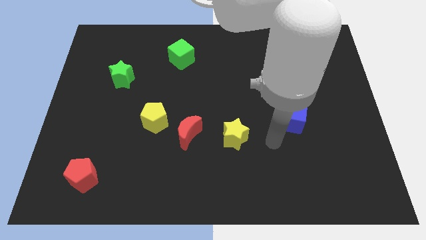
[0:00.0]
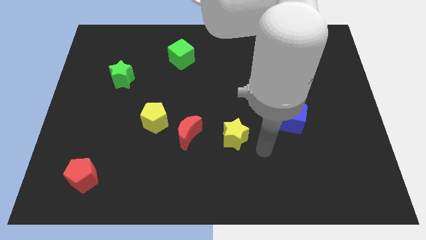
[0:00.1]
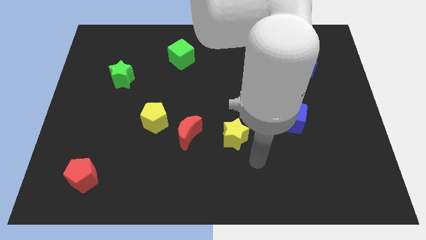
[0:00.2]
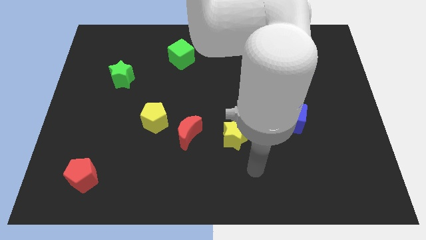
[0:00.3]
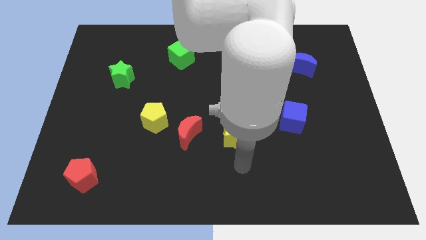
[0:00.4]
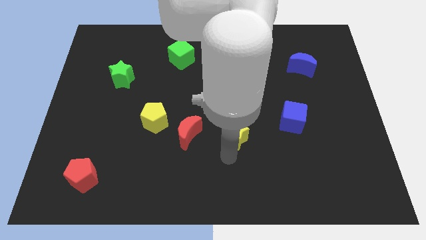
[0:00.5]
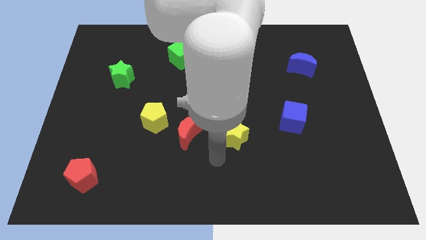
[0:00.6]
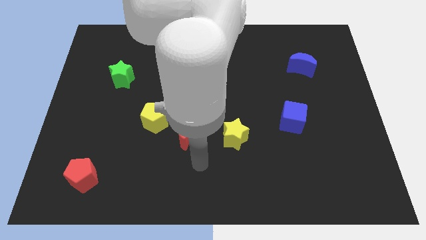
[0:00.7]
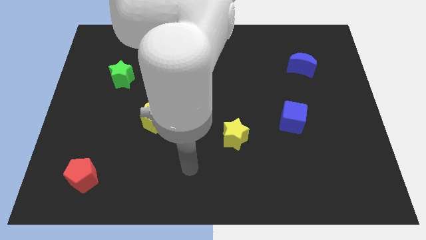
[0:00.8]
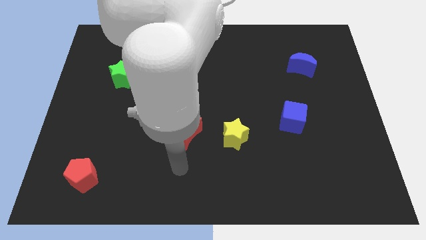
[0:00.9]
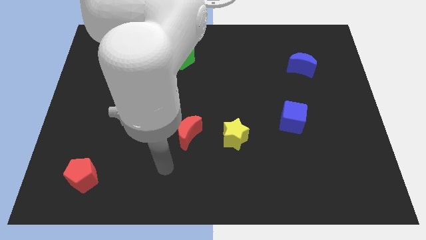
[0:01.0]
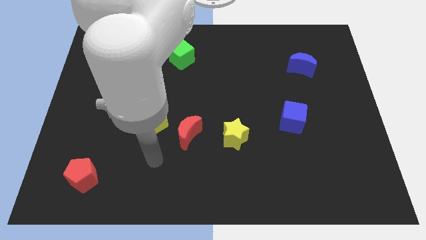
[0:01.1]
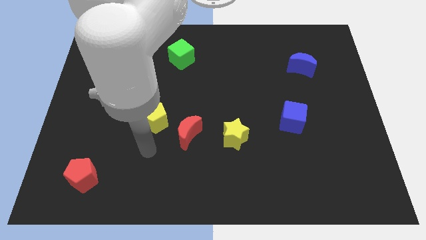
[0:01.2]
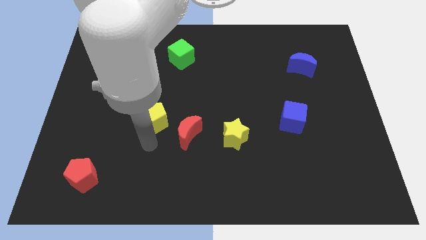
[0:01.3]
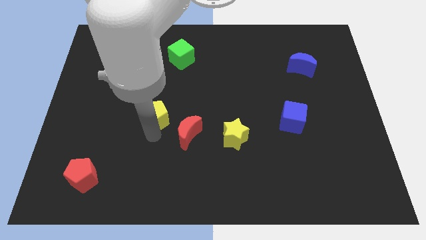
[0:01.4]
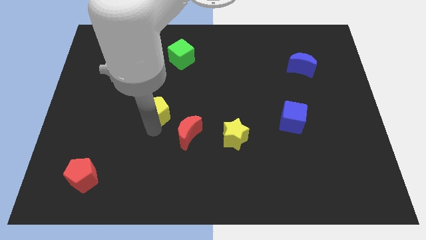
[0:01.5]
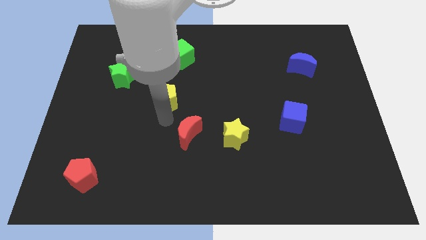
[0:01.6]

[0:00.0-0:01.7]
pull the red moon apart from the yellow pentagon

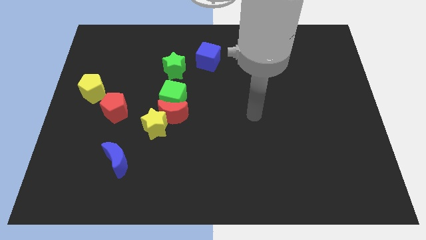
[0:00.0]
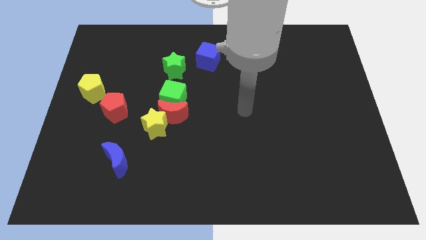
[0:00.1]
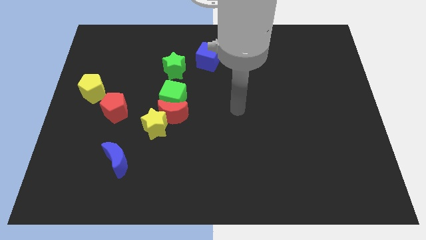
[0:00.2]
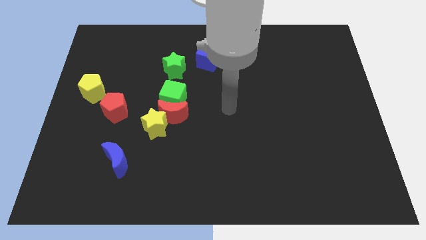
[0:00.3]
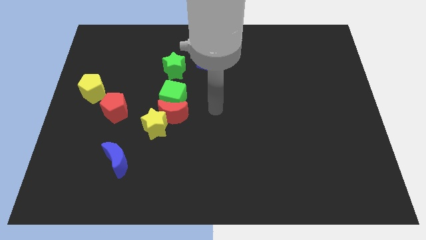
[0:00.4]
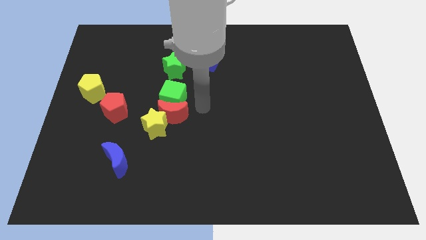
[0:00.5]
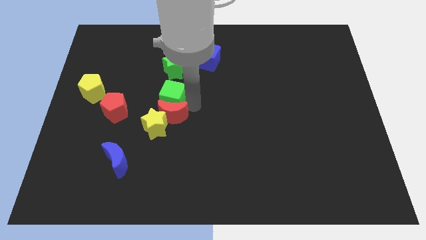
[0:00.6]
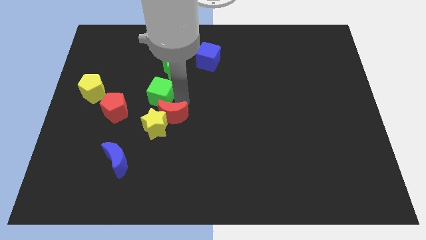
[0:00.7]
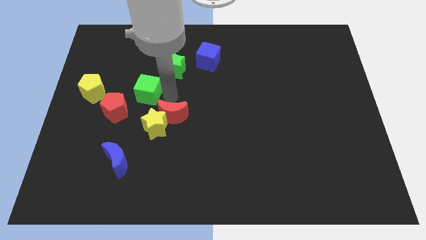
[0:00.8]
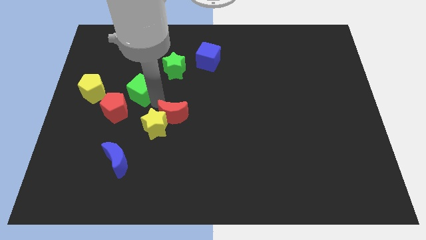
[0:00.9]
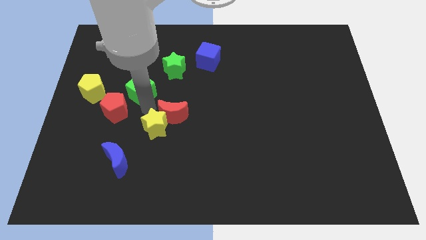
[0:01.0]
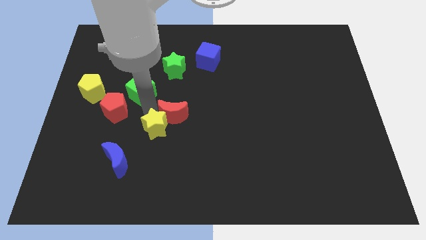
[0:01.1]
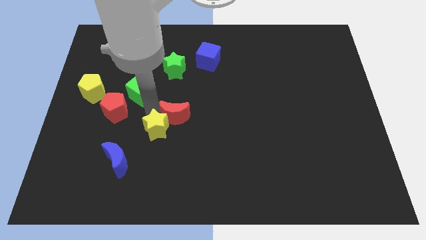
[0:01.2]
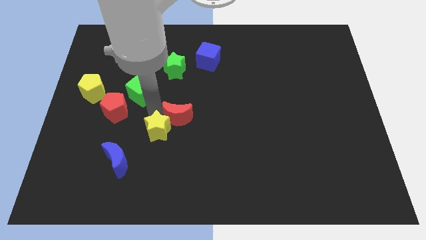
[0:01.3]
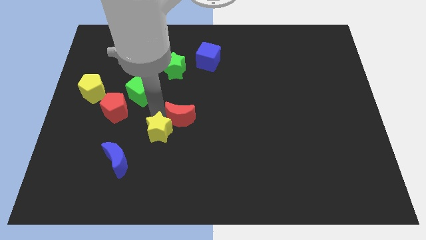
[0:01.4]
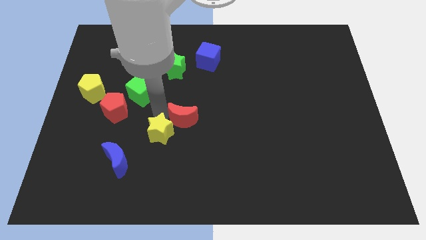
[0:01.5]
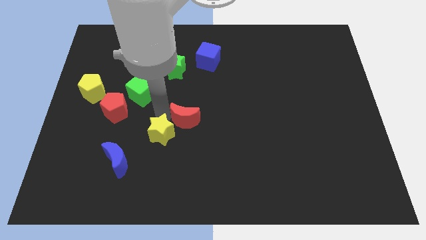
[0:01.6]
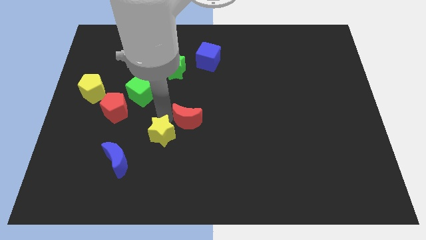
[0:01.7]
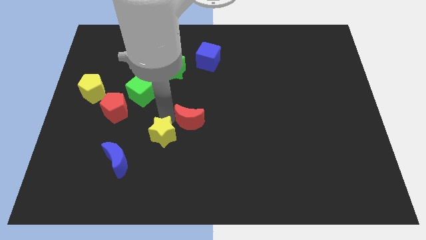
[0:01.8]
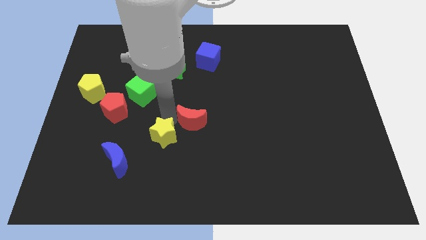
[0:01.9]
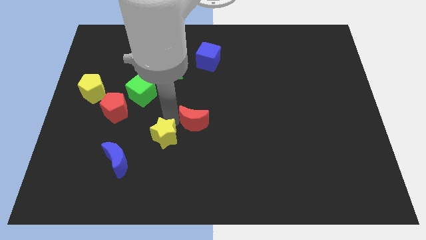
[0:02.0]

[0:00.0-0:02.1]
separate the red moon from the green cube and yellow star

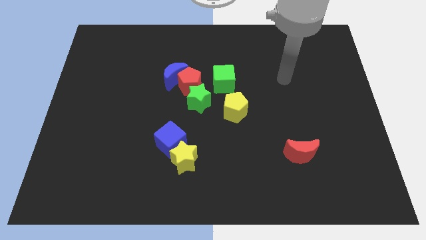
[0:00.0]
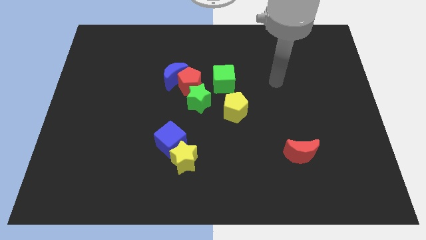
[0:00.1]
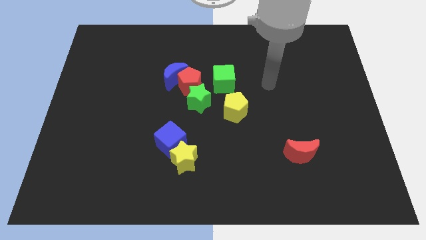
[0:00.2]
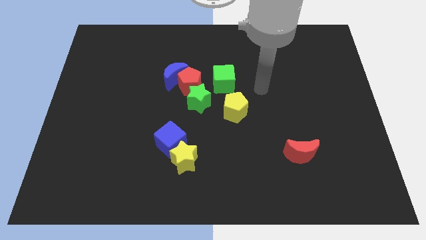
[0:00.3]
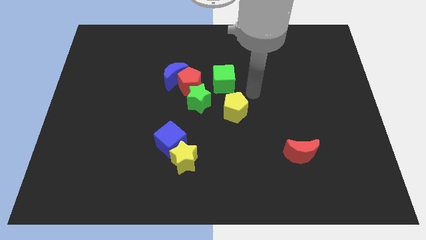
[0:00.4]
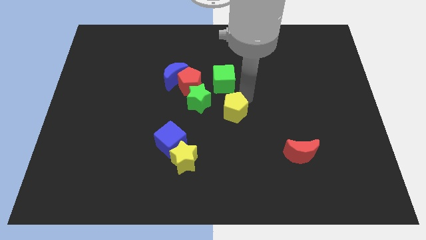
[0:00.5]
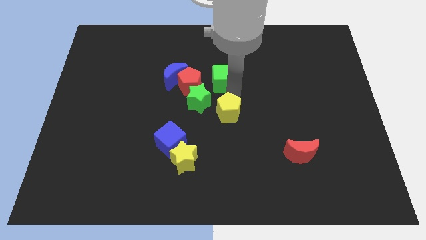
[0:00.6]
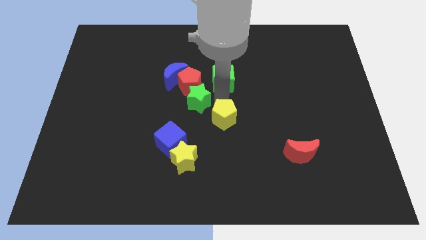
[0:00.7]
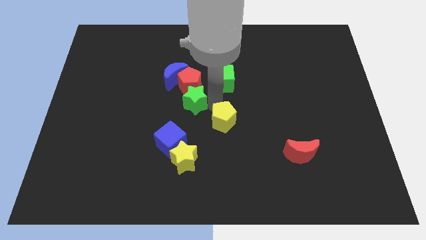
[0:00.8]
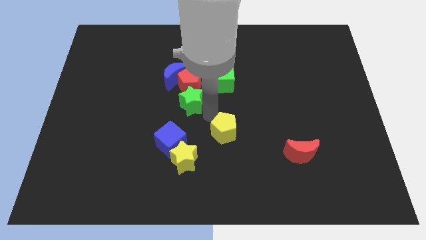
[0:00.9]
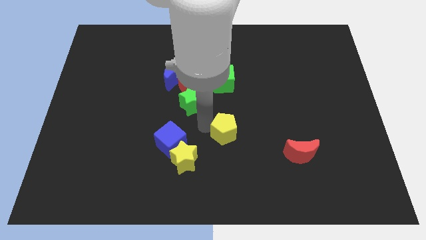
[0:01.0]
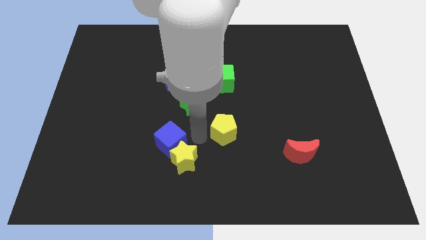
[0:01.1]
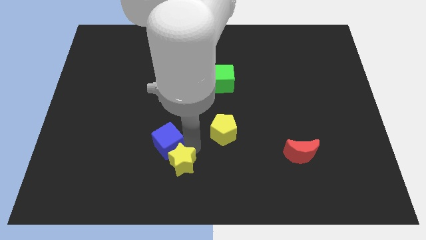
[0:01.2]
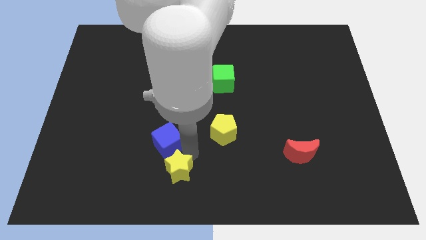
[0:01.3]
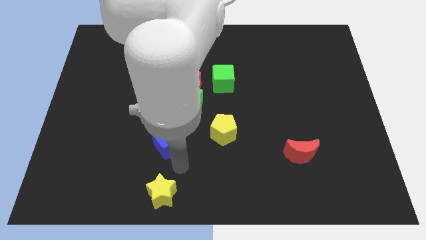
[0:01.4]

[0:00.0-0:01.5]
separate the blue cube from the yellow star

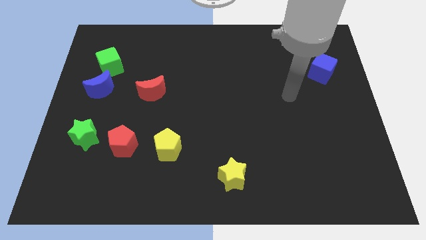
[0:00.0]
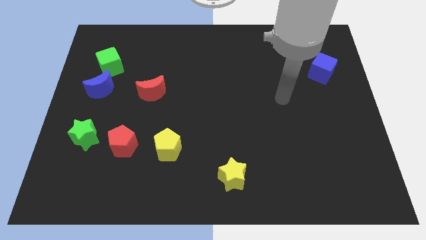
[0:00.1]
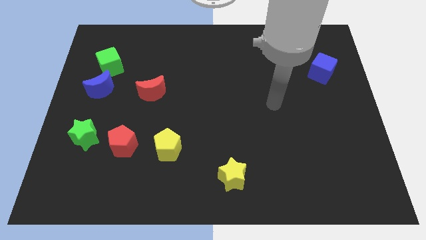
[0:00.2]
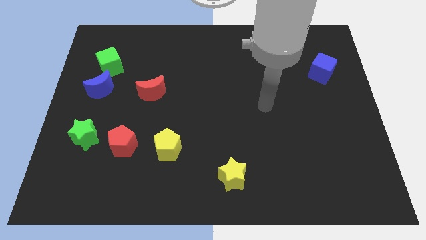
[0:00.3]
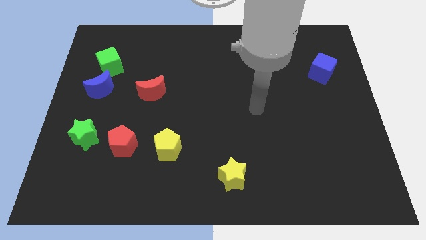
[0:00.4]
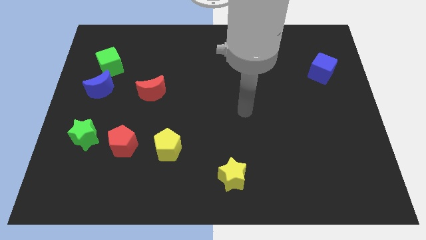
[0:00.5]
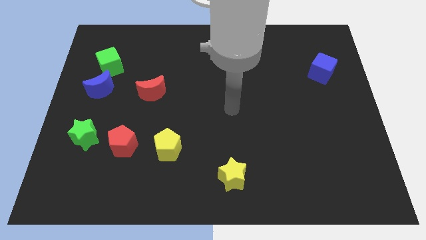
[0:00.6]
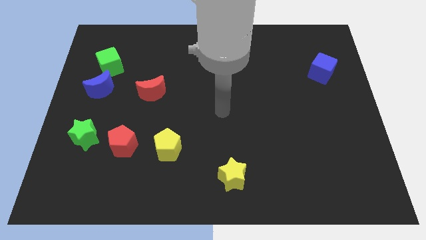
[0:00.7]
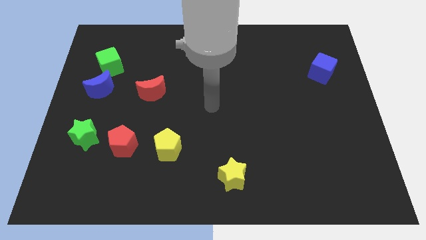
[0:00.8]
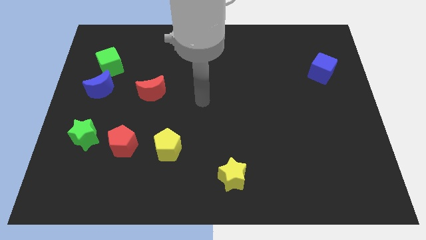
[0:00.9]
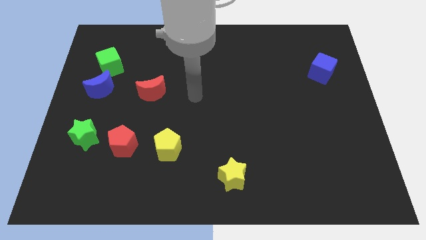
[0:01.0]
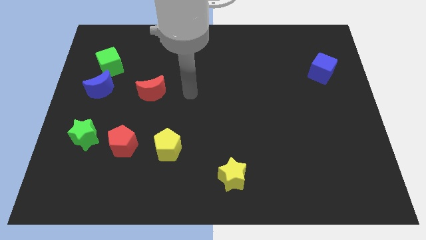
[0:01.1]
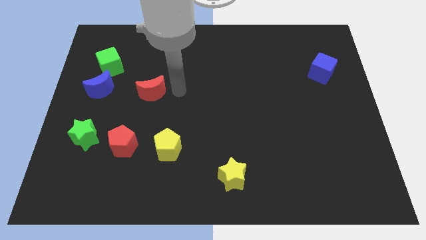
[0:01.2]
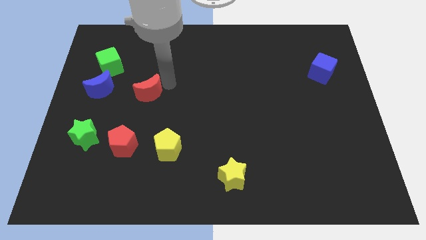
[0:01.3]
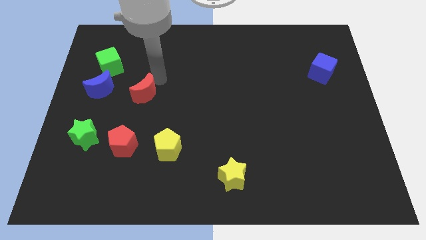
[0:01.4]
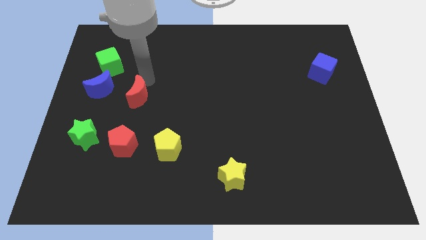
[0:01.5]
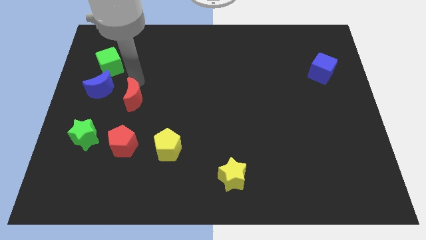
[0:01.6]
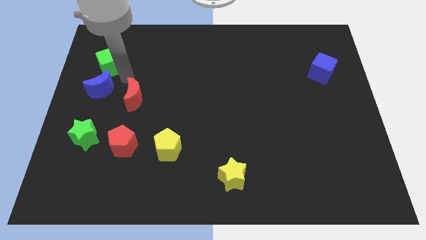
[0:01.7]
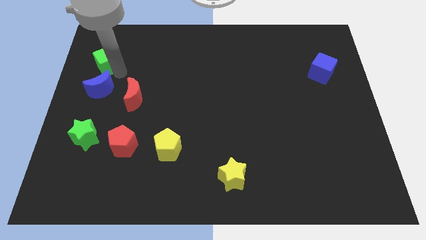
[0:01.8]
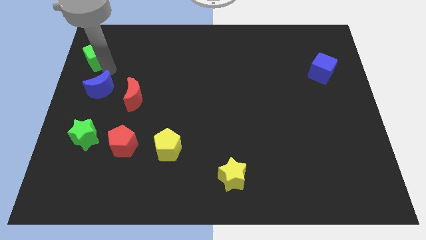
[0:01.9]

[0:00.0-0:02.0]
pull the blue moon apart from the green cube

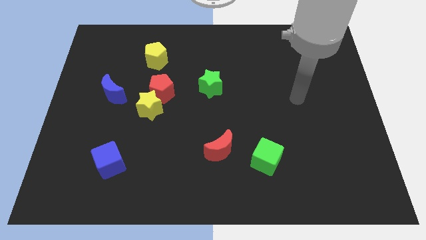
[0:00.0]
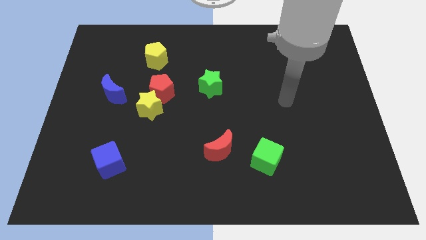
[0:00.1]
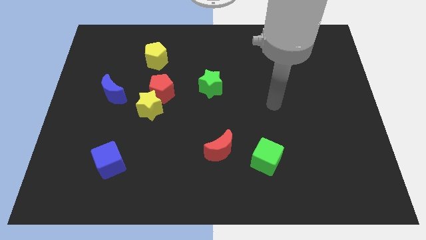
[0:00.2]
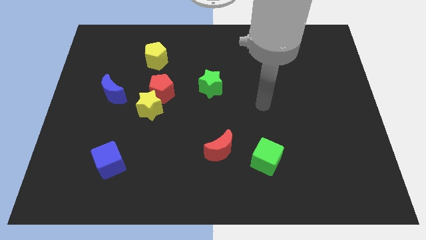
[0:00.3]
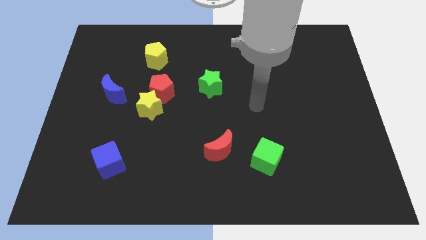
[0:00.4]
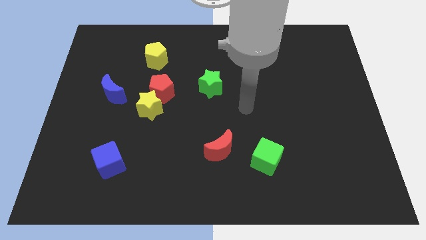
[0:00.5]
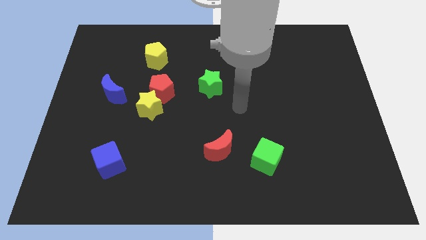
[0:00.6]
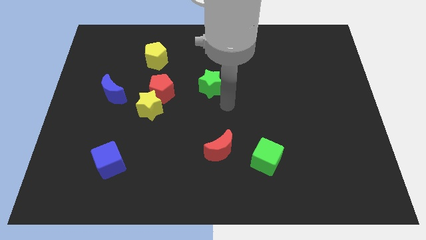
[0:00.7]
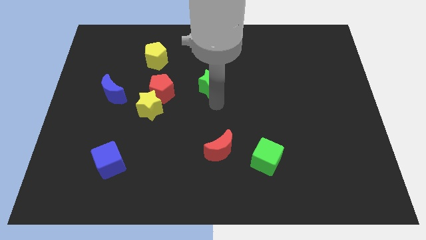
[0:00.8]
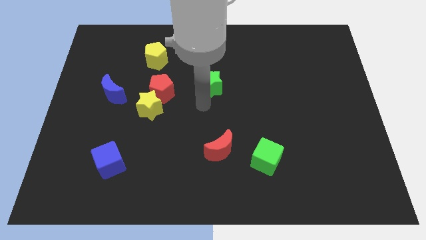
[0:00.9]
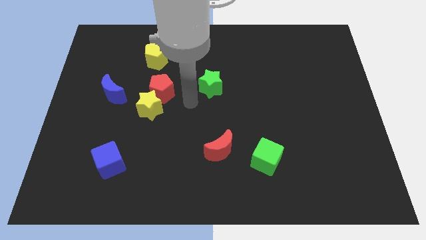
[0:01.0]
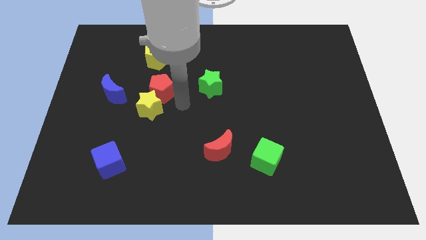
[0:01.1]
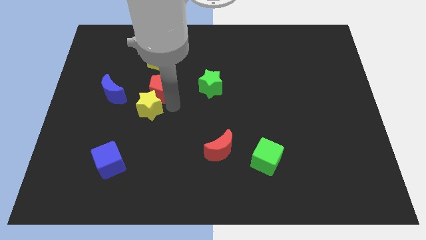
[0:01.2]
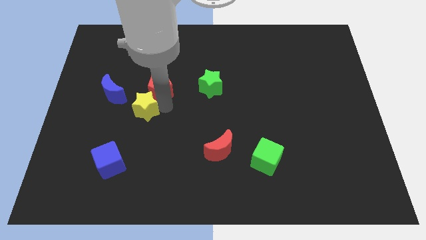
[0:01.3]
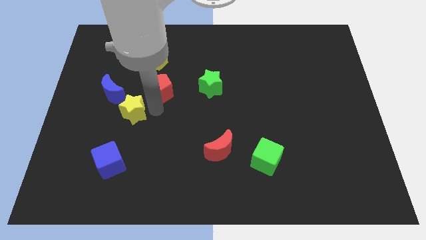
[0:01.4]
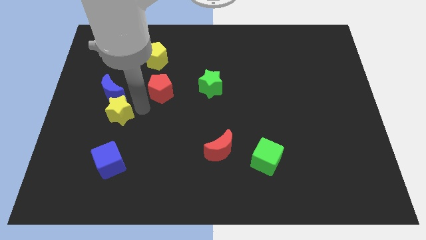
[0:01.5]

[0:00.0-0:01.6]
move the red pentagon away from the yellow star

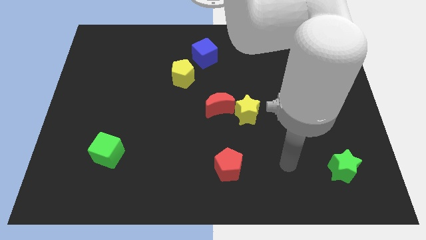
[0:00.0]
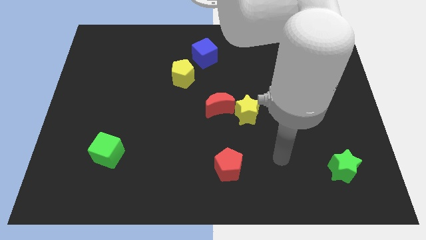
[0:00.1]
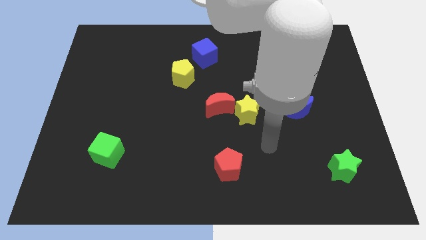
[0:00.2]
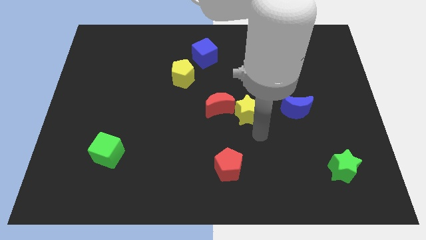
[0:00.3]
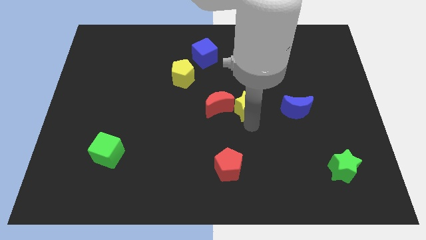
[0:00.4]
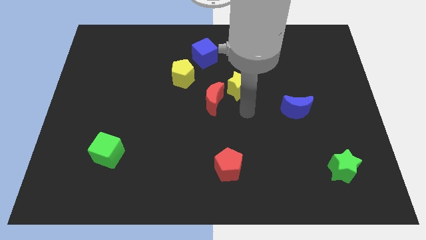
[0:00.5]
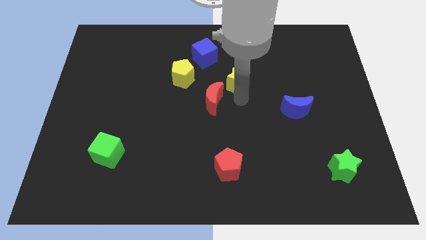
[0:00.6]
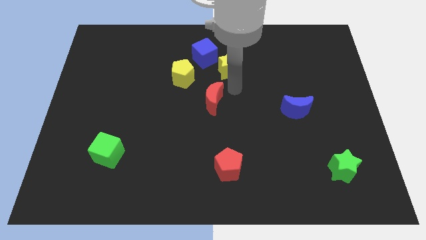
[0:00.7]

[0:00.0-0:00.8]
pull the red moon apart from the yellow star
